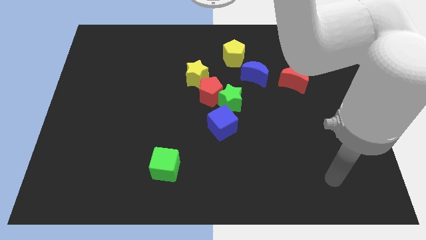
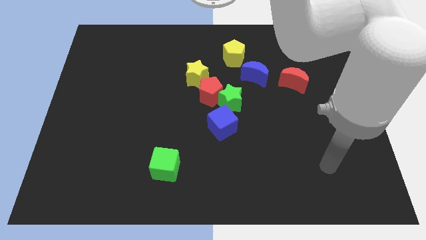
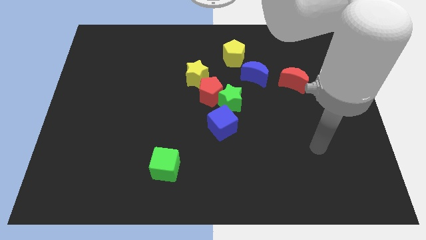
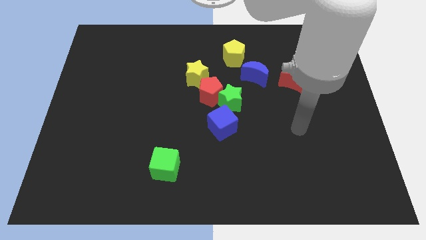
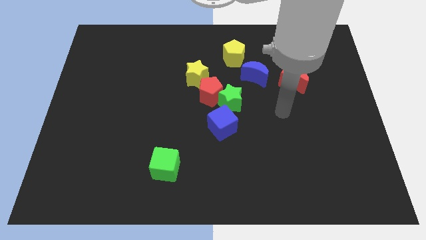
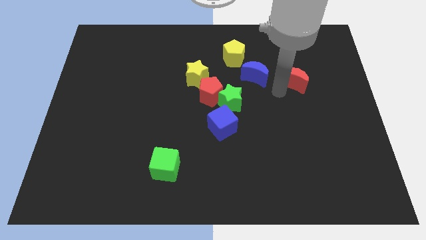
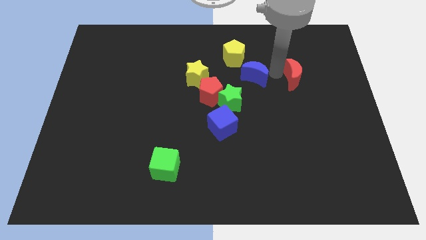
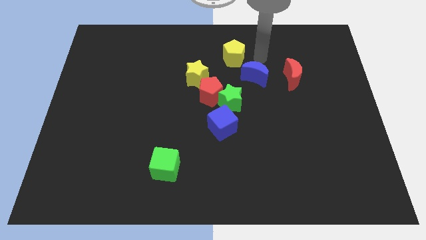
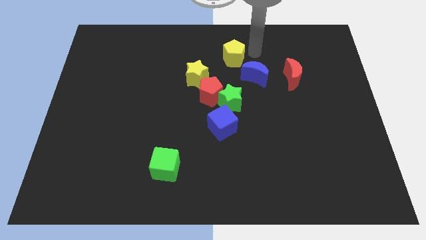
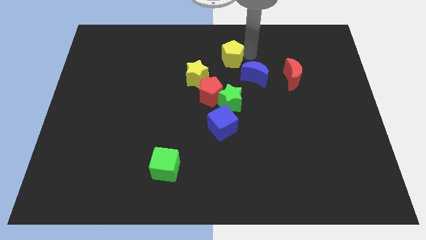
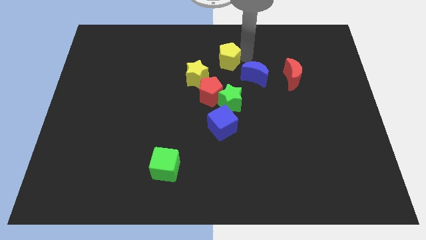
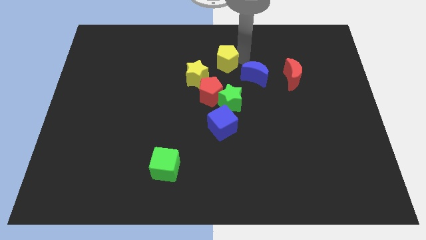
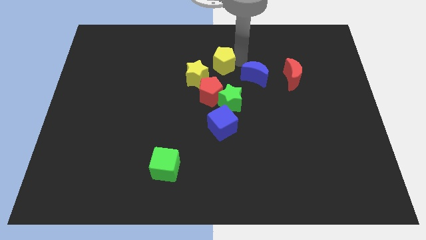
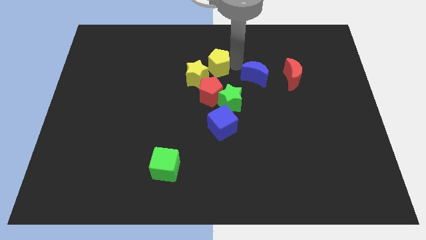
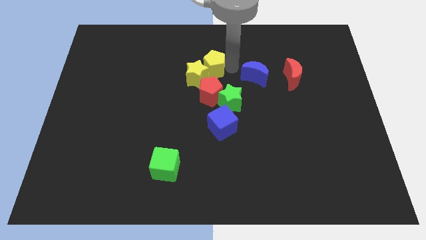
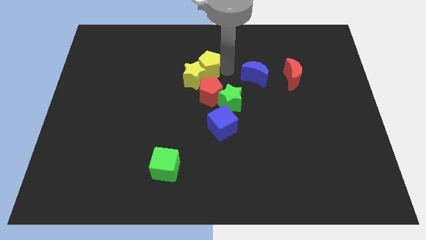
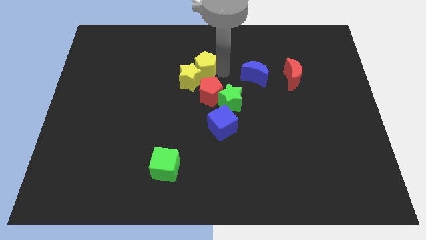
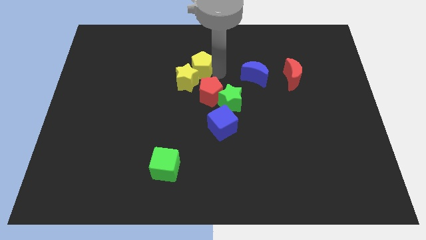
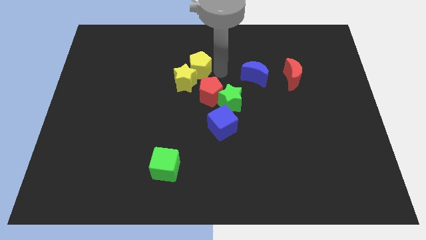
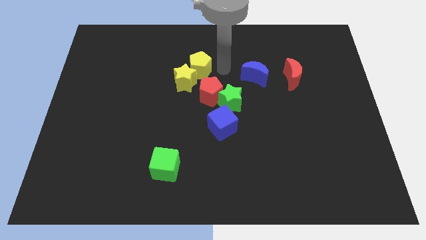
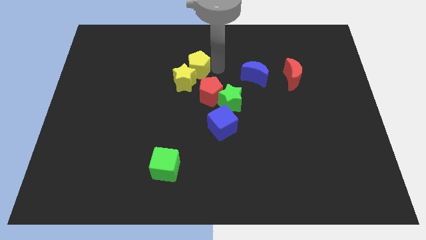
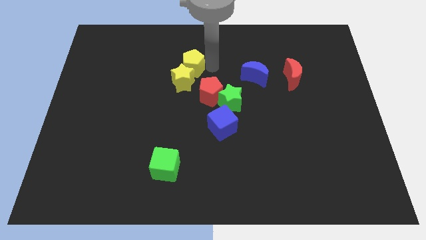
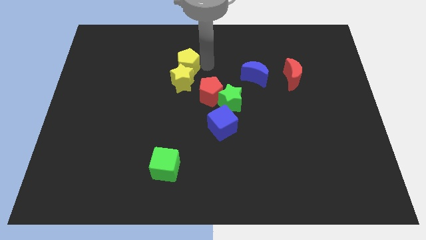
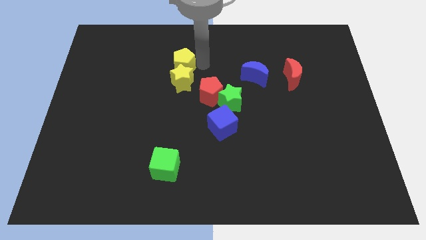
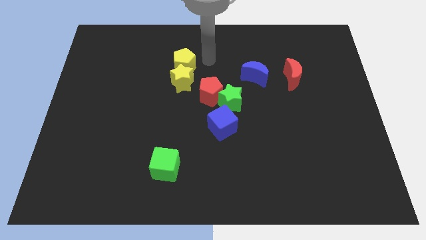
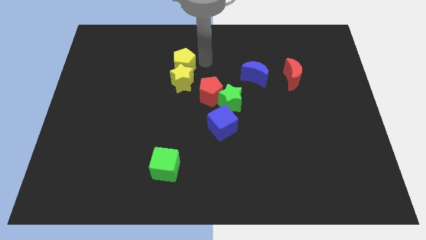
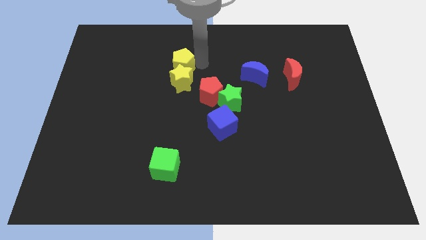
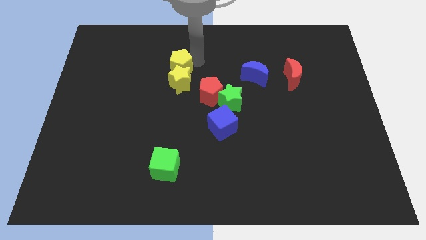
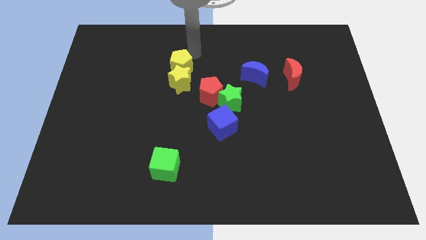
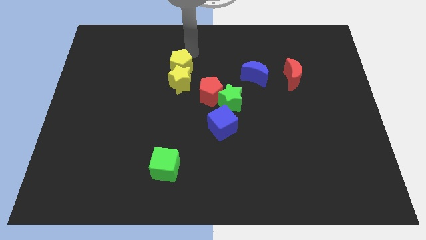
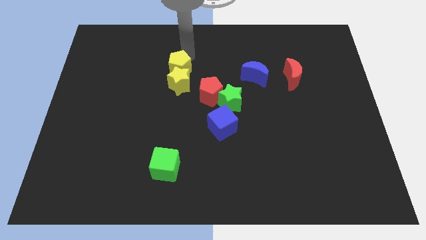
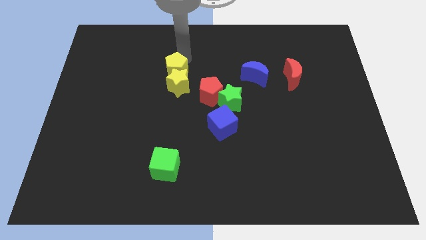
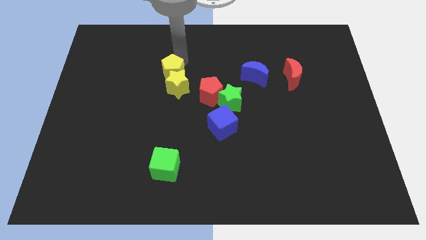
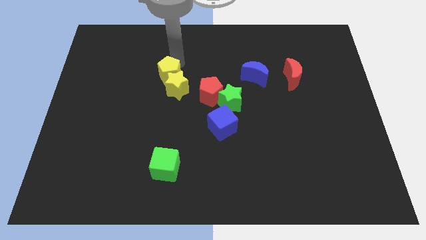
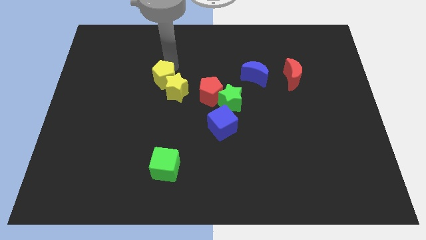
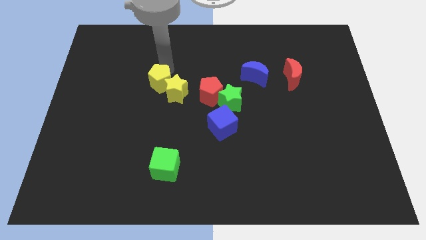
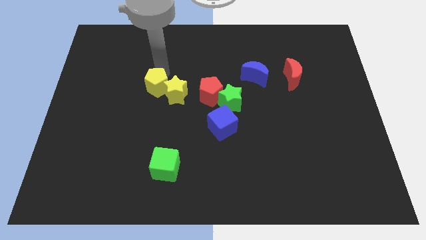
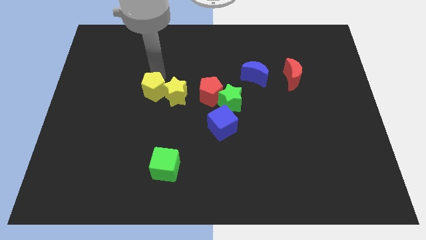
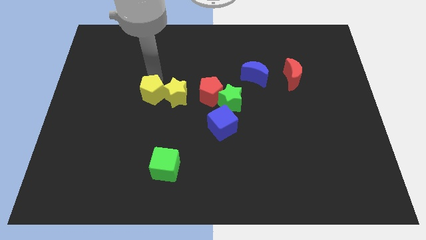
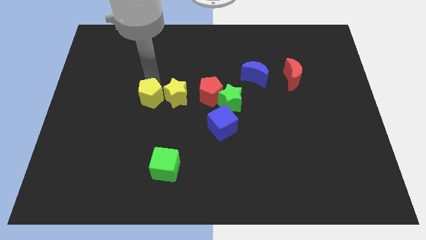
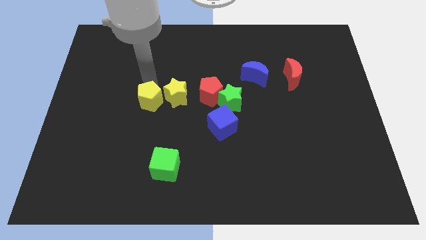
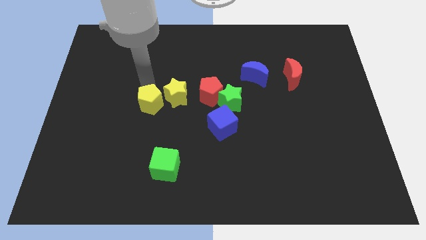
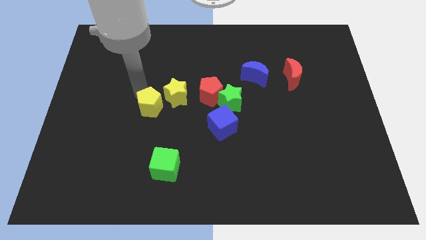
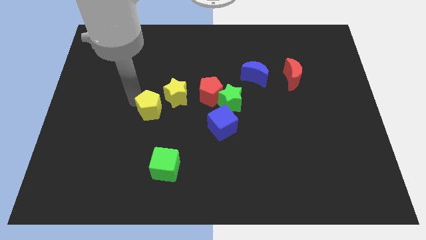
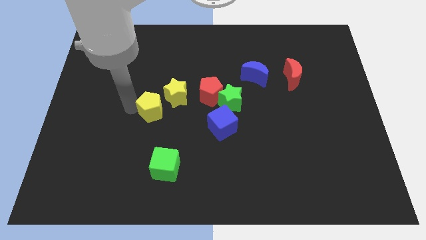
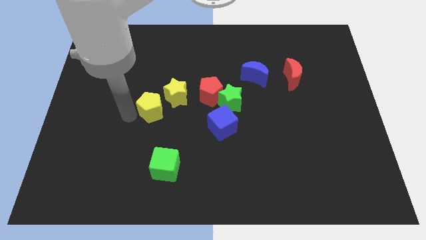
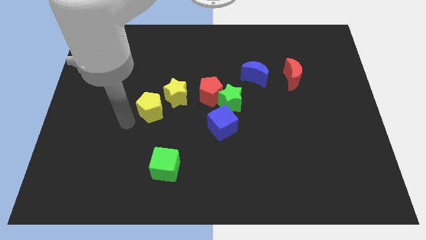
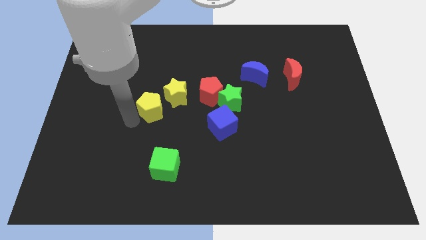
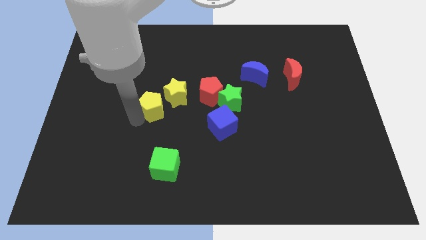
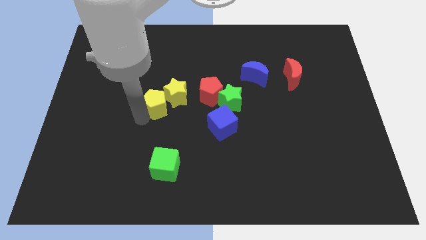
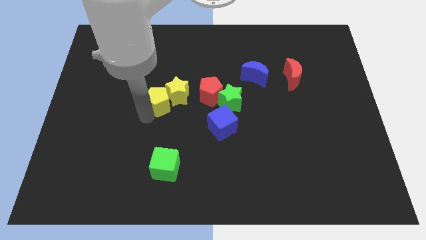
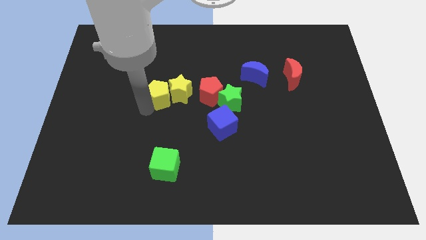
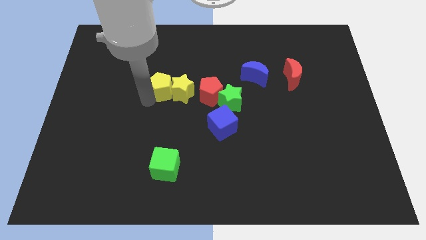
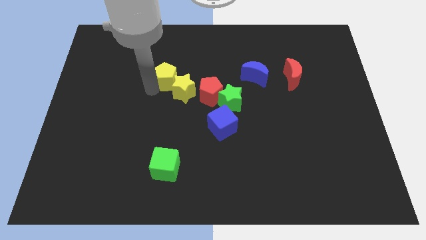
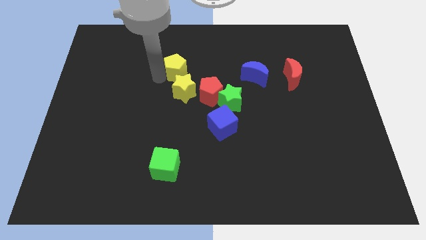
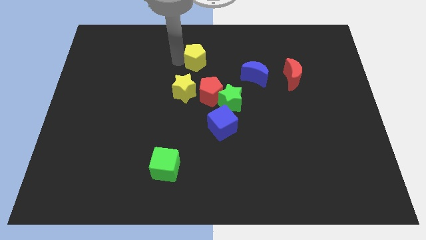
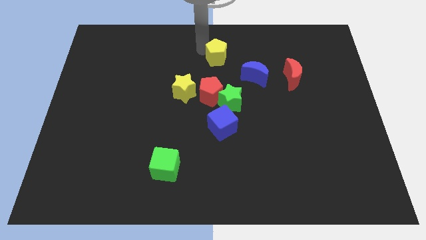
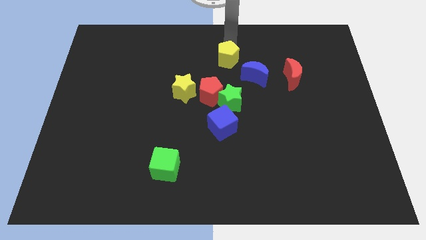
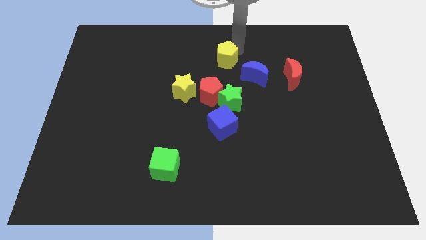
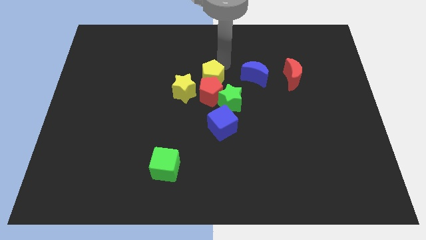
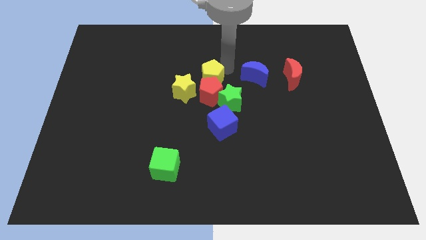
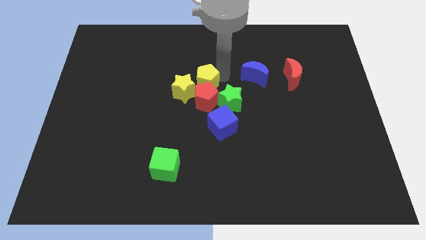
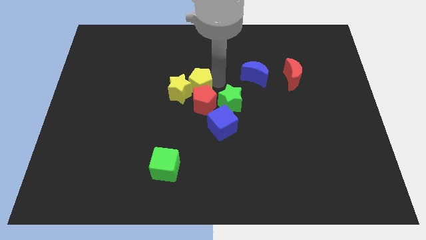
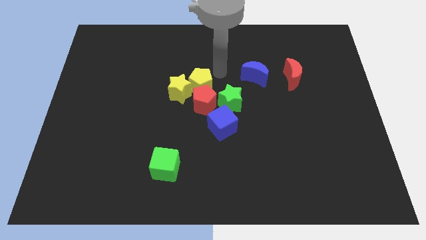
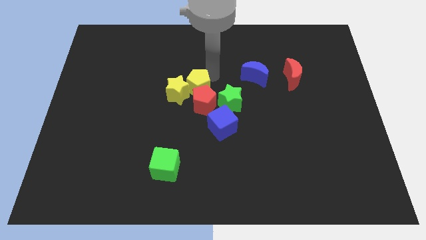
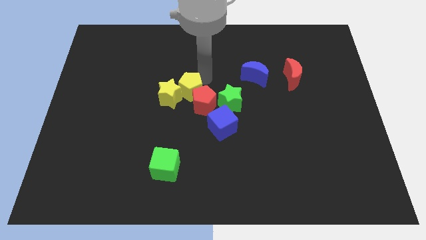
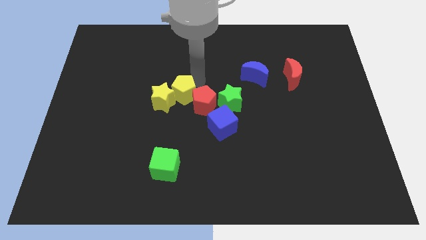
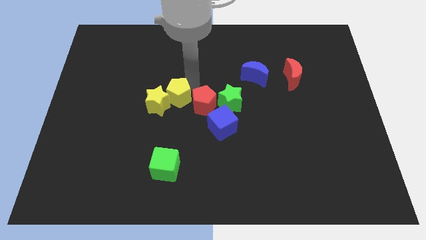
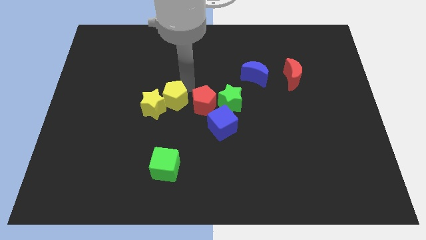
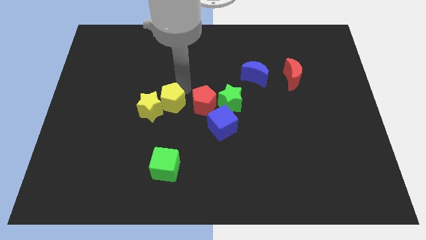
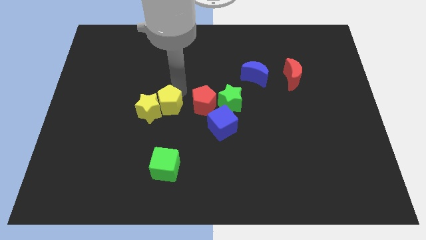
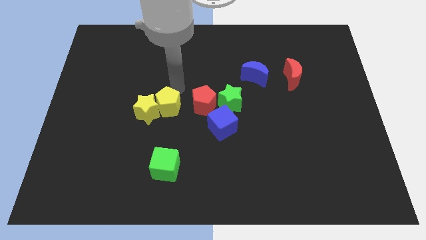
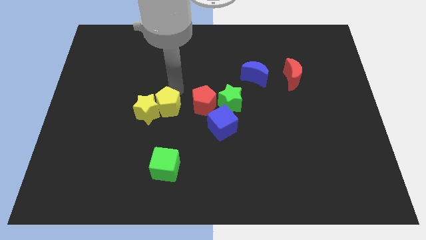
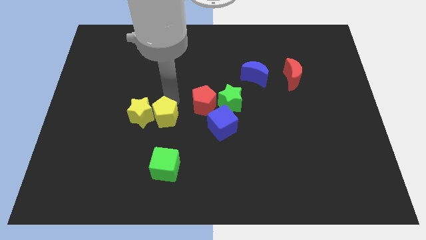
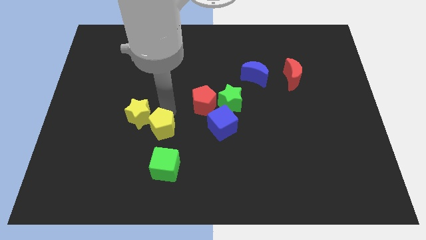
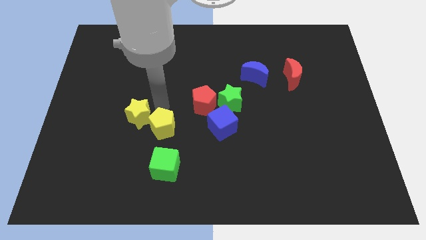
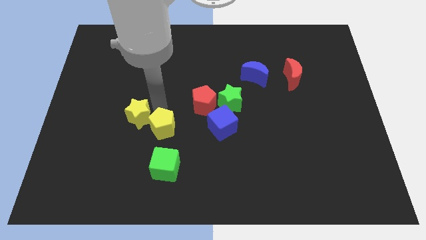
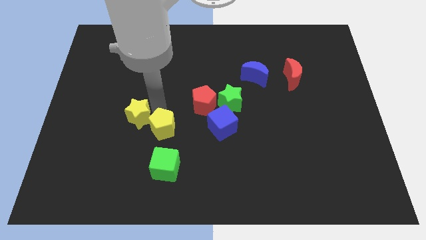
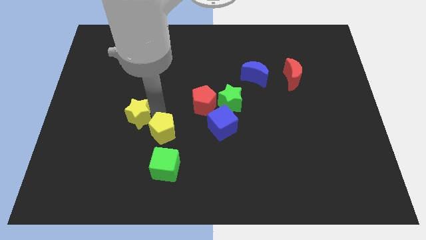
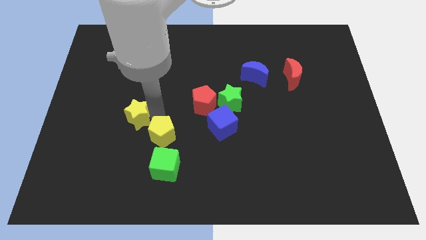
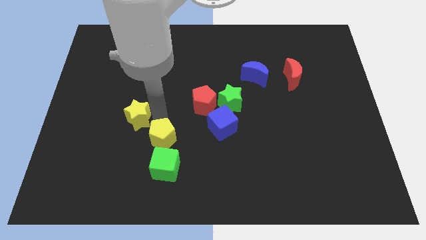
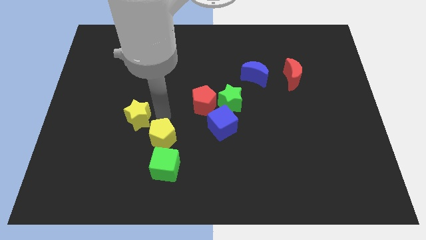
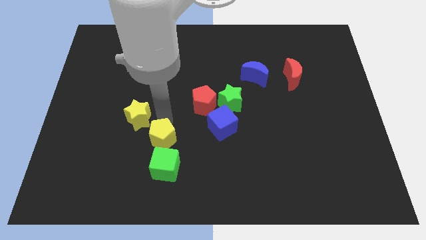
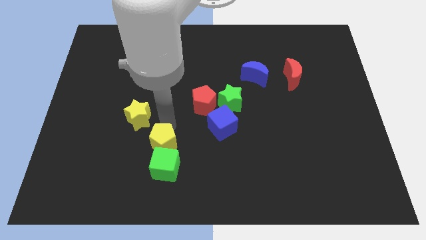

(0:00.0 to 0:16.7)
put the yellow pentagon next to the green cube

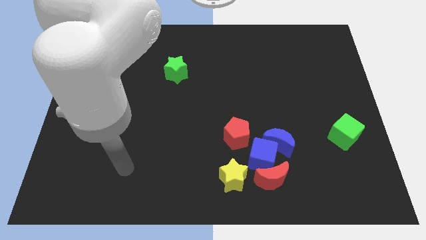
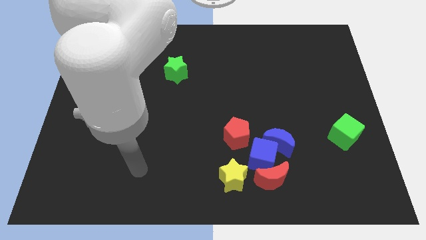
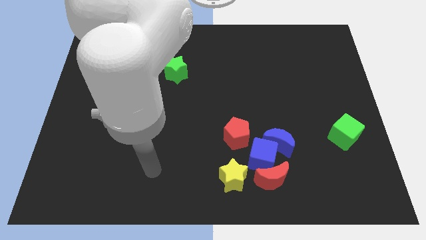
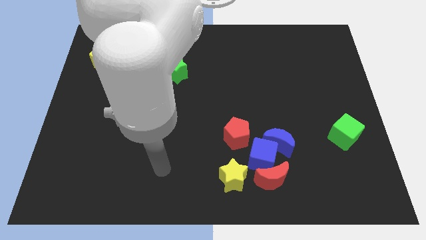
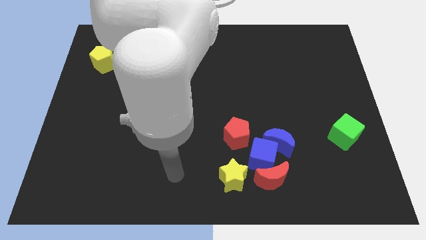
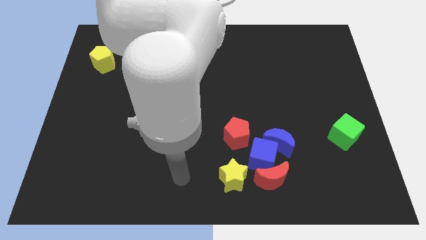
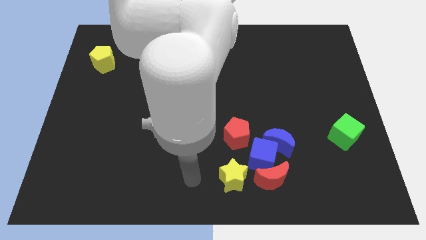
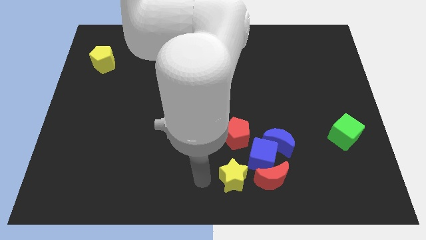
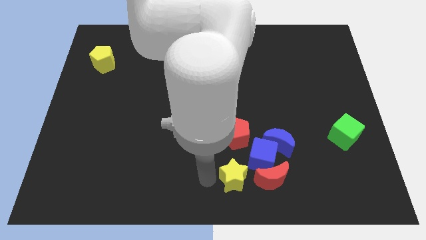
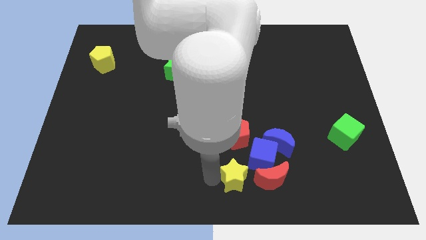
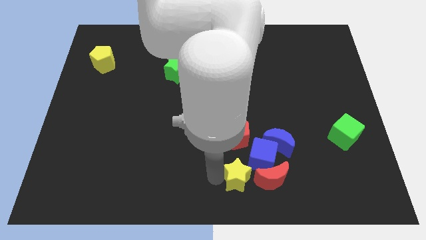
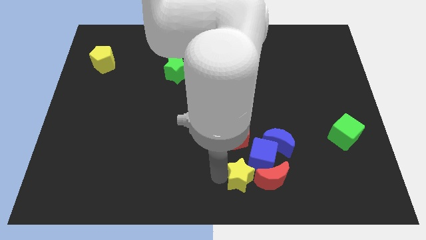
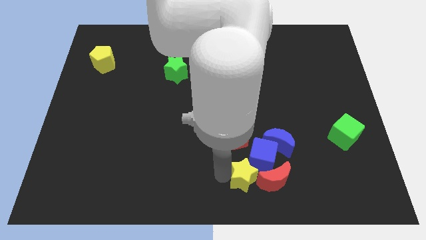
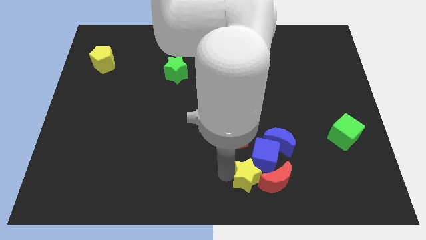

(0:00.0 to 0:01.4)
slide the yellow star to the red moon
